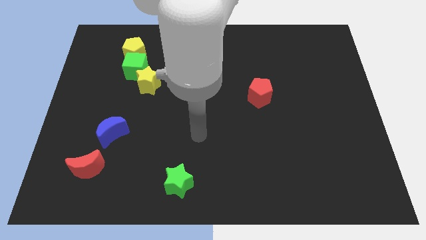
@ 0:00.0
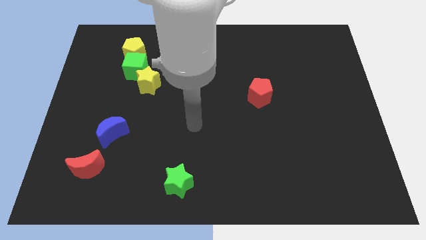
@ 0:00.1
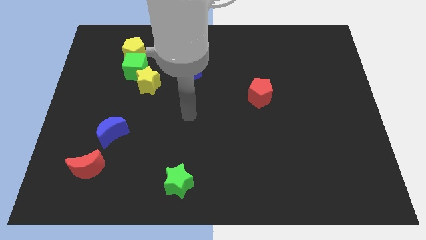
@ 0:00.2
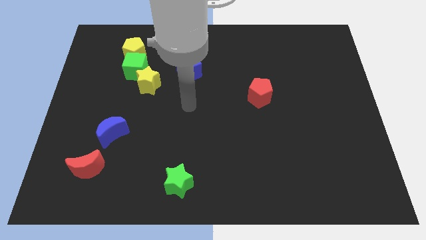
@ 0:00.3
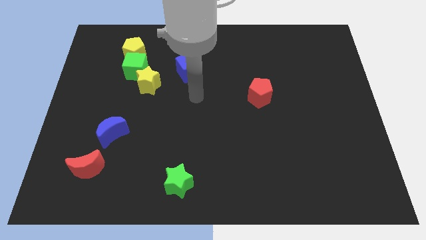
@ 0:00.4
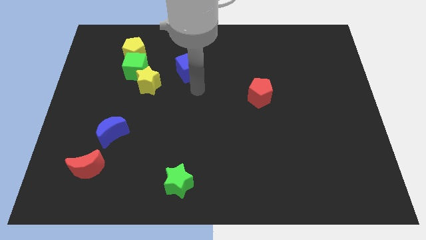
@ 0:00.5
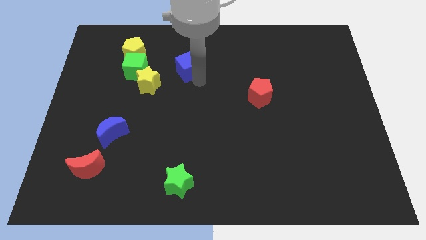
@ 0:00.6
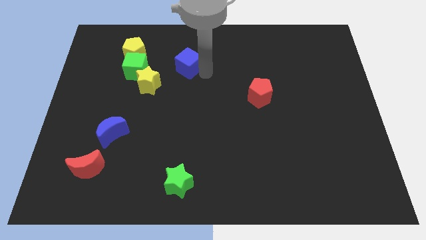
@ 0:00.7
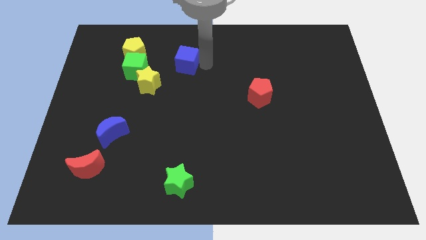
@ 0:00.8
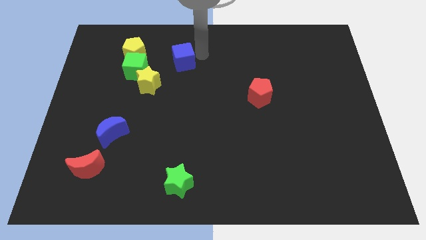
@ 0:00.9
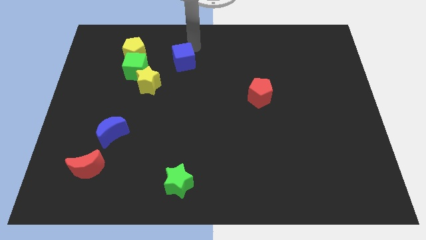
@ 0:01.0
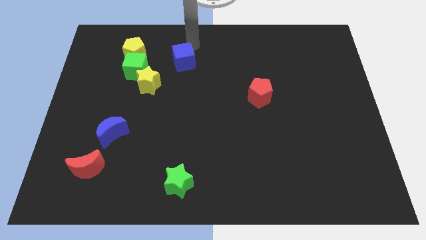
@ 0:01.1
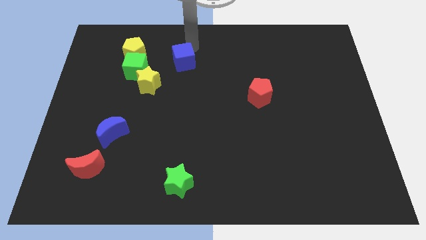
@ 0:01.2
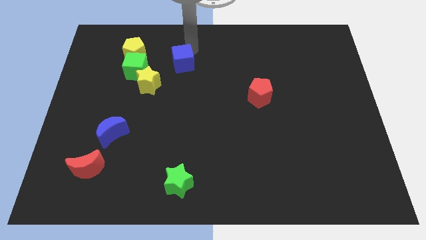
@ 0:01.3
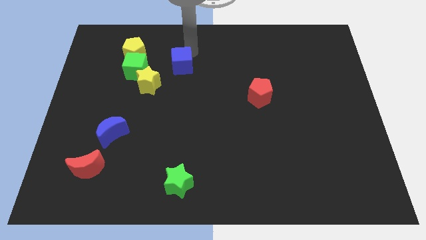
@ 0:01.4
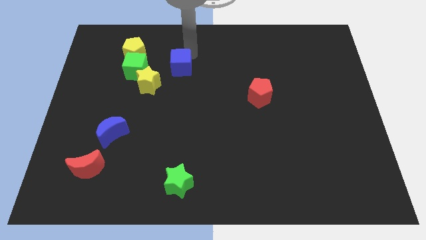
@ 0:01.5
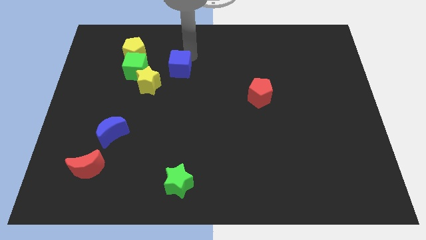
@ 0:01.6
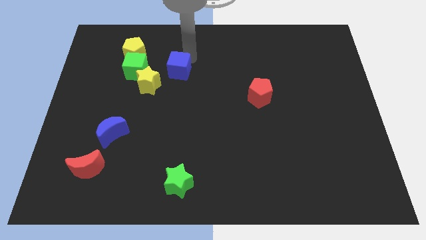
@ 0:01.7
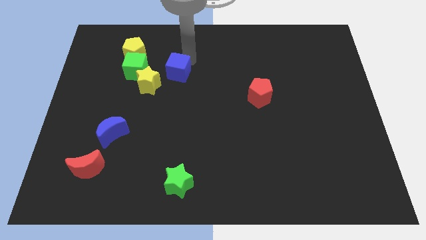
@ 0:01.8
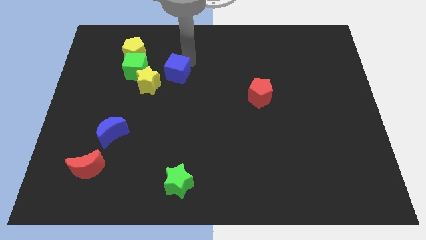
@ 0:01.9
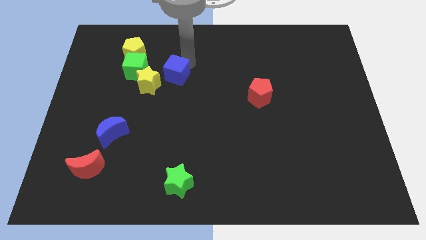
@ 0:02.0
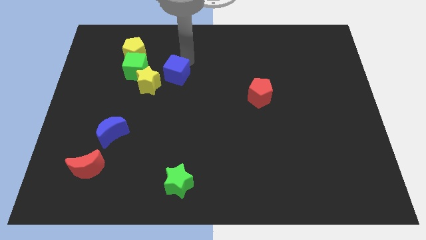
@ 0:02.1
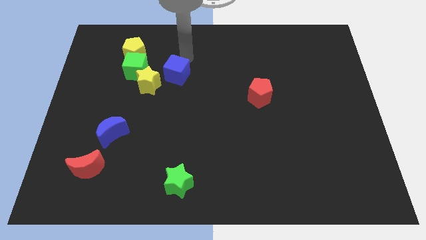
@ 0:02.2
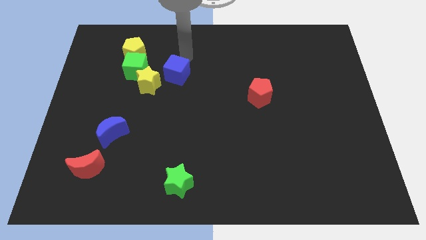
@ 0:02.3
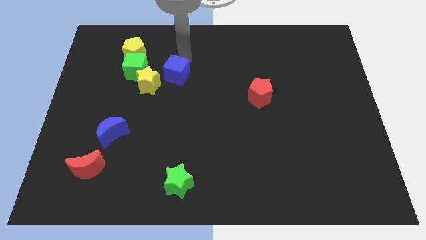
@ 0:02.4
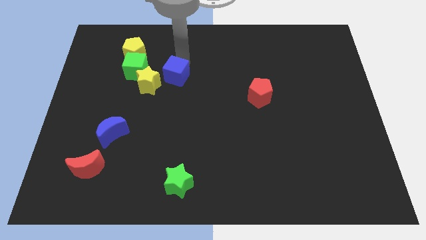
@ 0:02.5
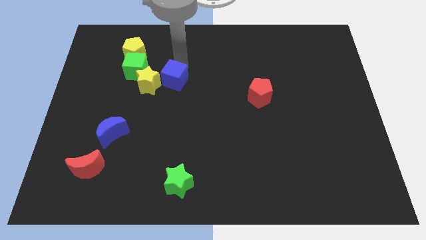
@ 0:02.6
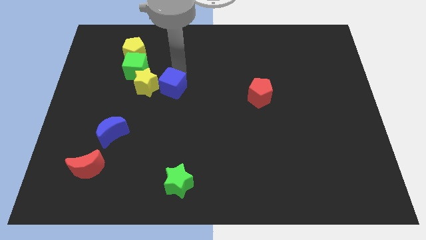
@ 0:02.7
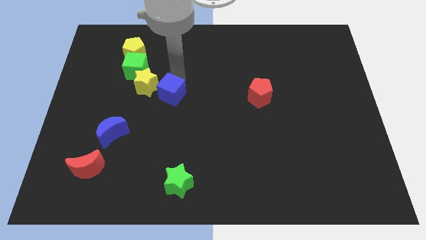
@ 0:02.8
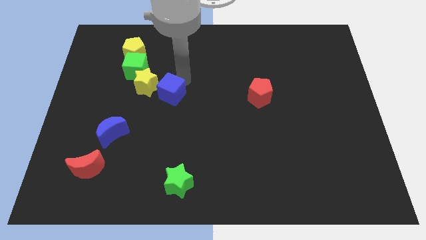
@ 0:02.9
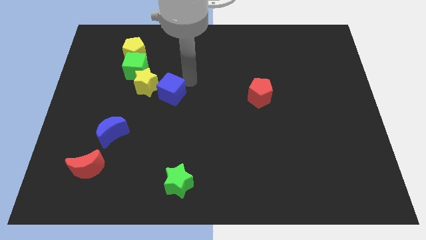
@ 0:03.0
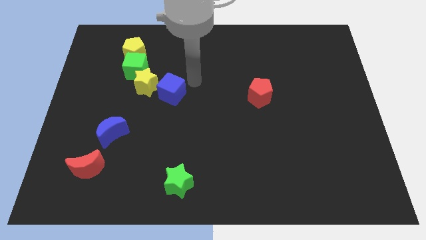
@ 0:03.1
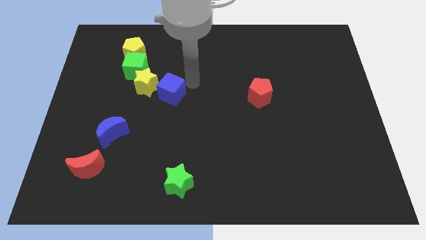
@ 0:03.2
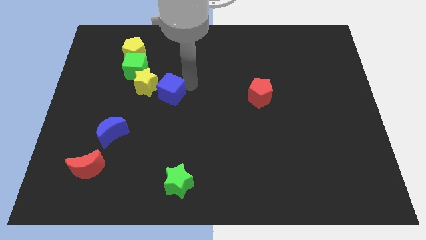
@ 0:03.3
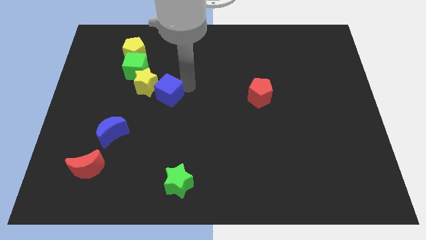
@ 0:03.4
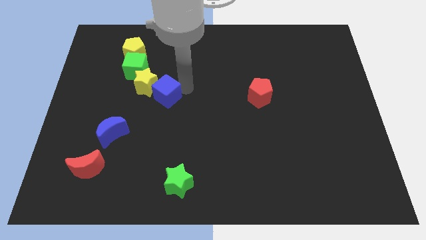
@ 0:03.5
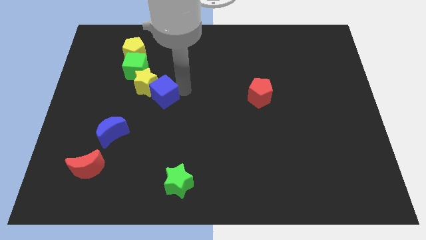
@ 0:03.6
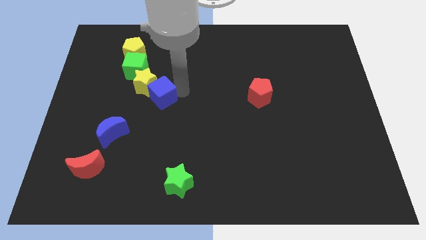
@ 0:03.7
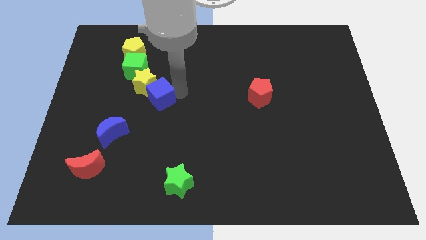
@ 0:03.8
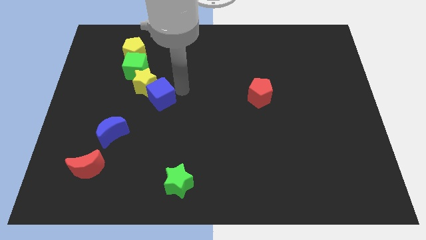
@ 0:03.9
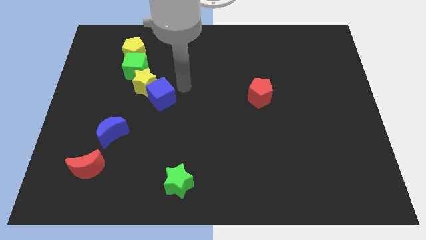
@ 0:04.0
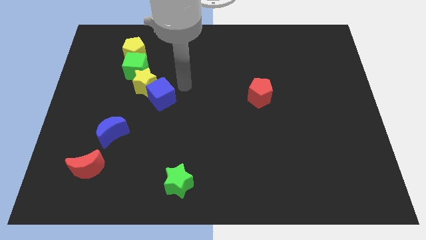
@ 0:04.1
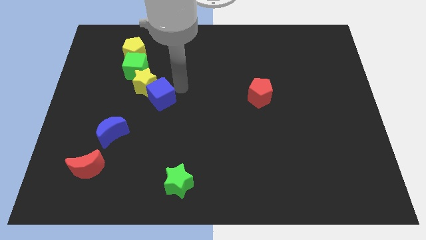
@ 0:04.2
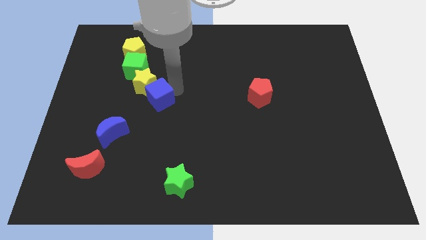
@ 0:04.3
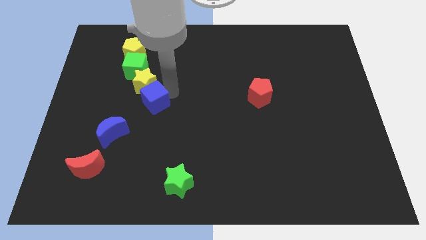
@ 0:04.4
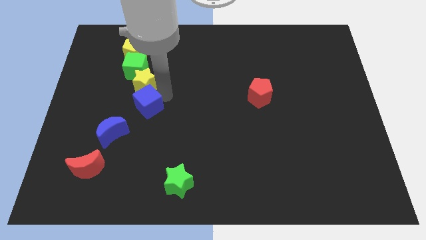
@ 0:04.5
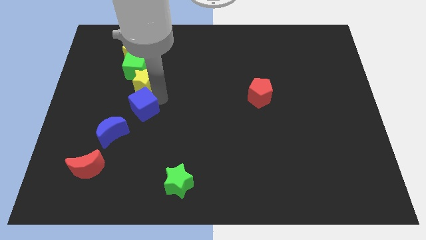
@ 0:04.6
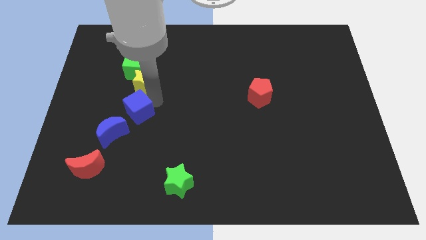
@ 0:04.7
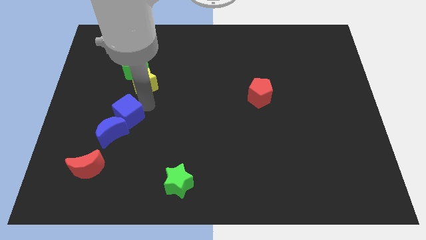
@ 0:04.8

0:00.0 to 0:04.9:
move the blue cube to the blue moon

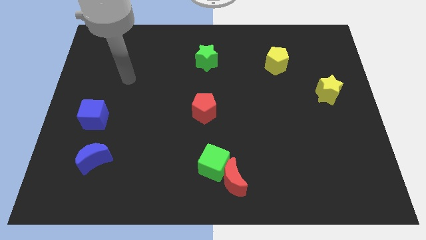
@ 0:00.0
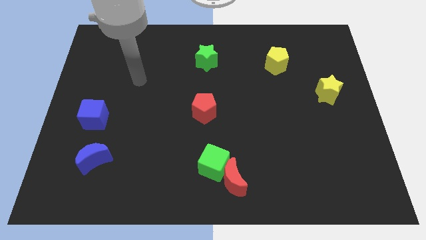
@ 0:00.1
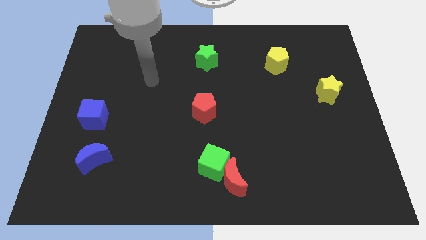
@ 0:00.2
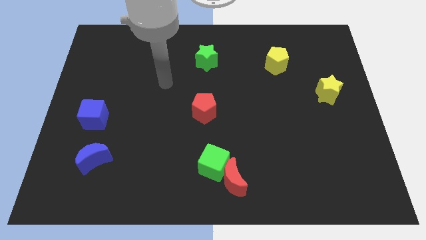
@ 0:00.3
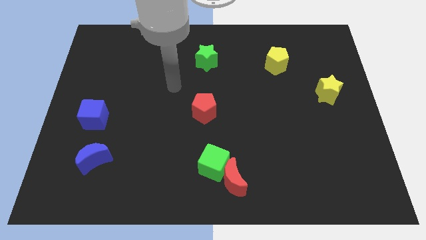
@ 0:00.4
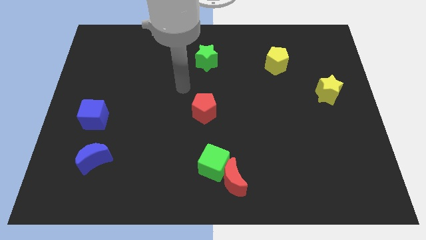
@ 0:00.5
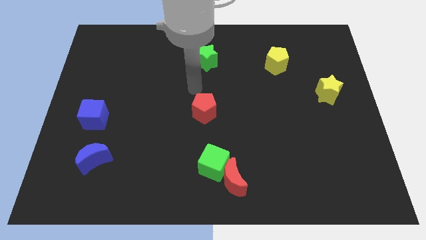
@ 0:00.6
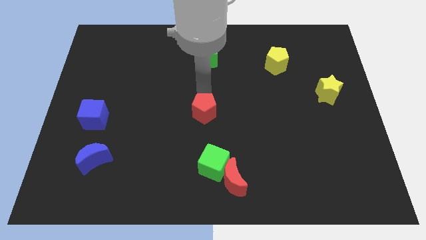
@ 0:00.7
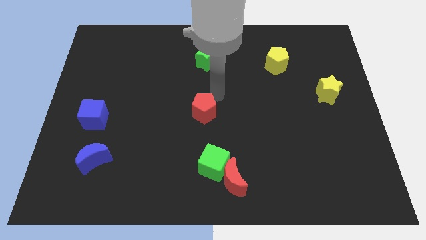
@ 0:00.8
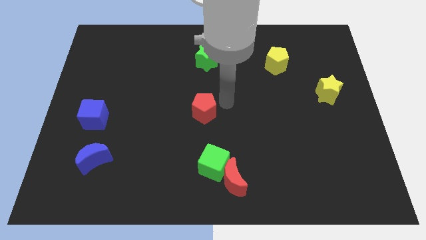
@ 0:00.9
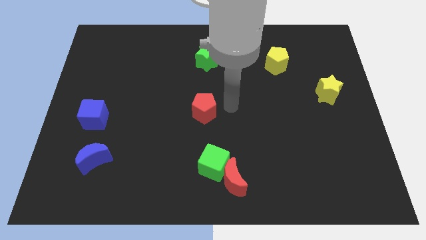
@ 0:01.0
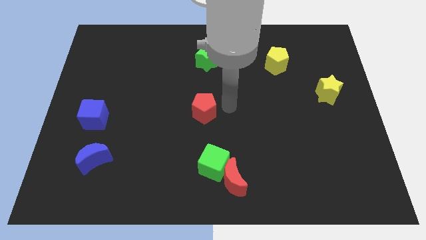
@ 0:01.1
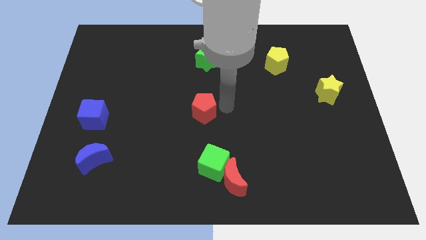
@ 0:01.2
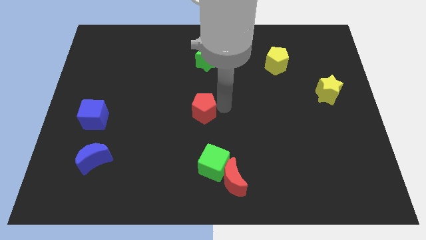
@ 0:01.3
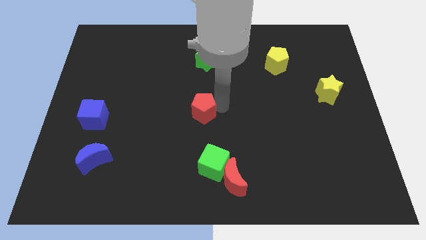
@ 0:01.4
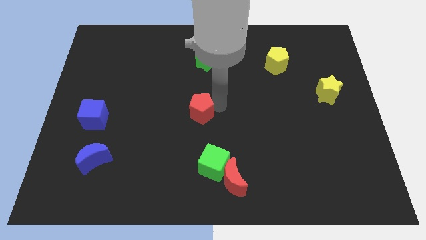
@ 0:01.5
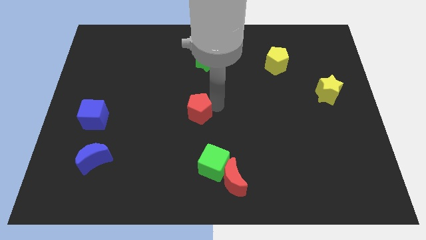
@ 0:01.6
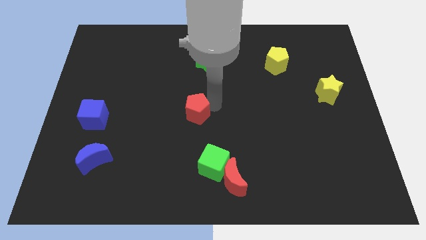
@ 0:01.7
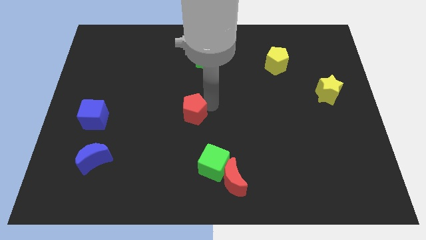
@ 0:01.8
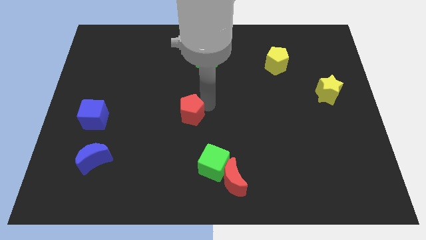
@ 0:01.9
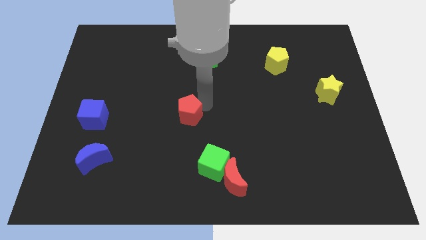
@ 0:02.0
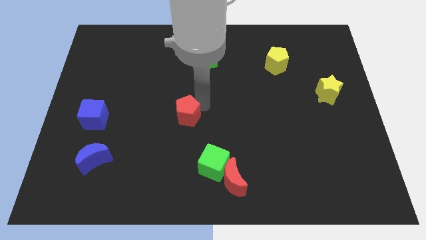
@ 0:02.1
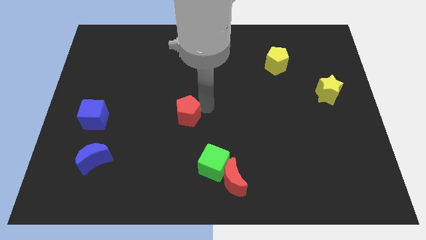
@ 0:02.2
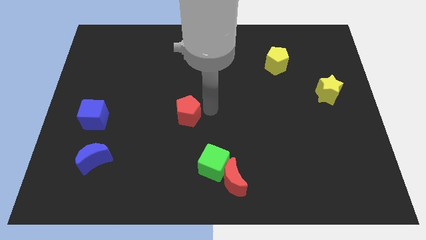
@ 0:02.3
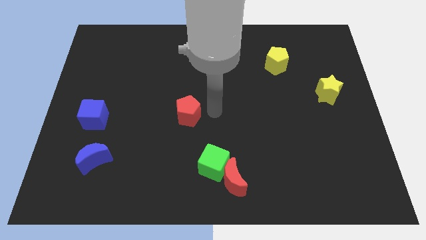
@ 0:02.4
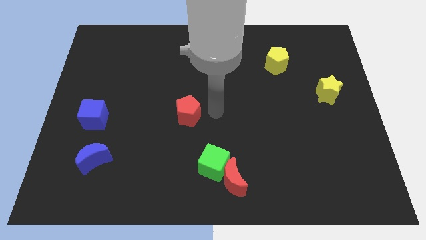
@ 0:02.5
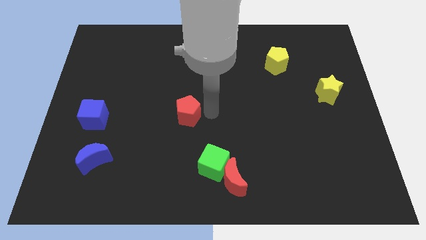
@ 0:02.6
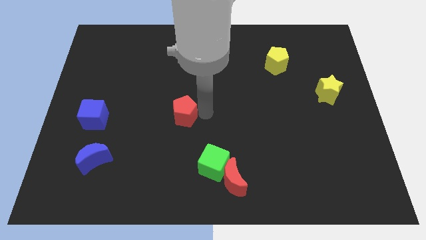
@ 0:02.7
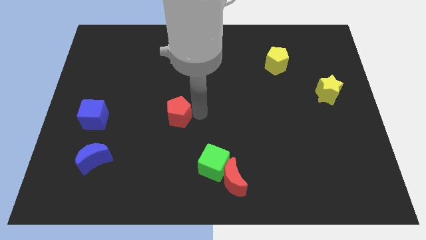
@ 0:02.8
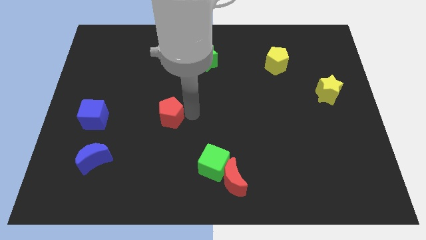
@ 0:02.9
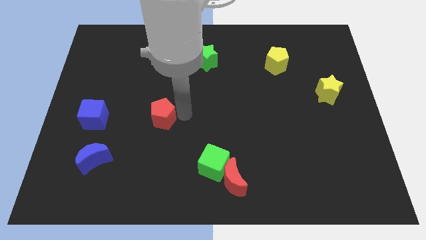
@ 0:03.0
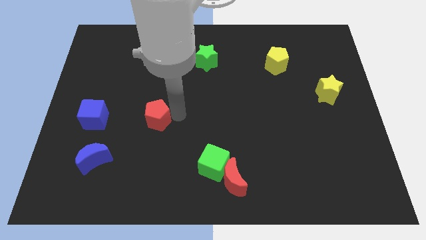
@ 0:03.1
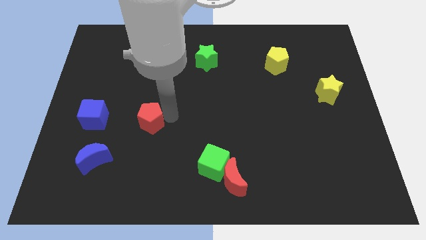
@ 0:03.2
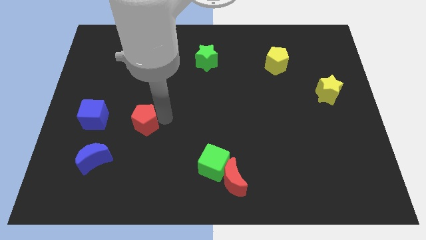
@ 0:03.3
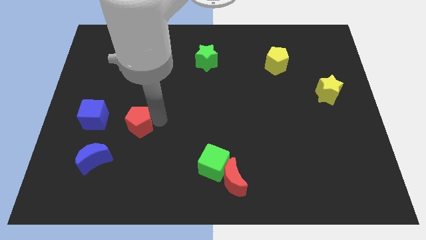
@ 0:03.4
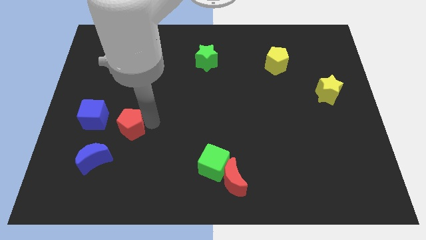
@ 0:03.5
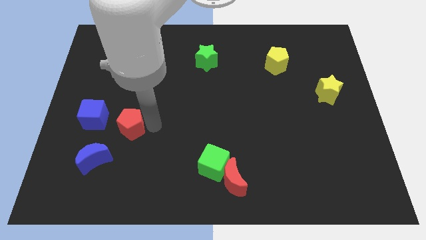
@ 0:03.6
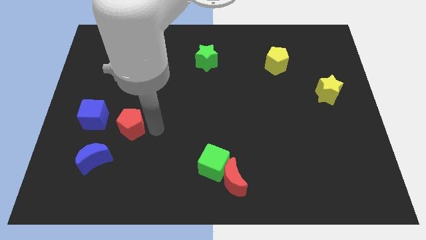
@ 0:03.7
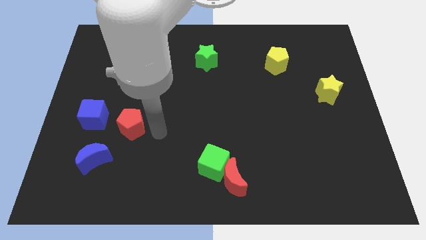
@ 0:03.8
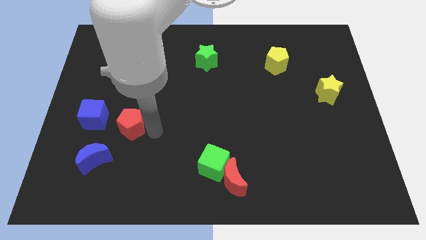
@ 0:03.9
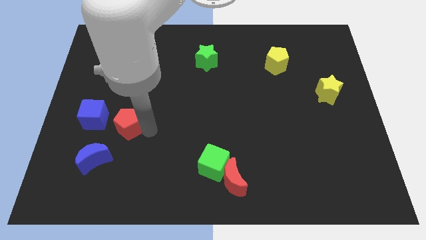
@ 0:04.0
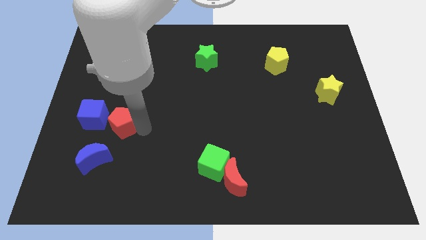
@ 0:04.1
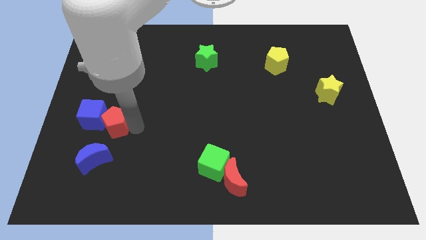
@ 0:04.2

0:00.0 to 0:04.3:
move the red pentagon close to the blue cube
